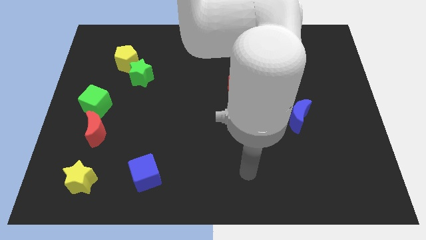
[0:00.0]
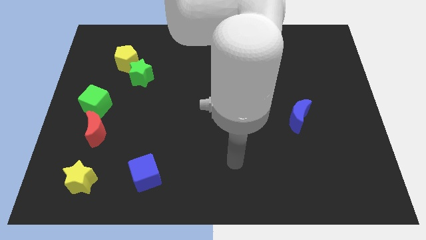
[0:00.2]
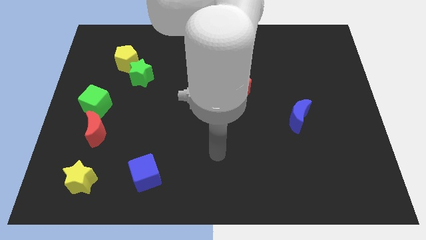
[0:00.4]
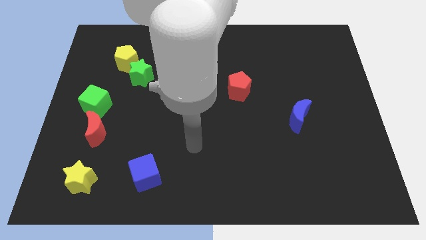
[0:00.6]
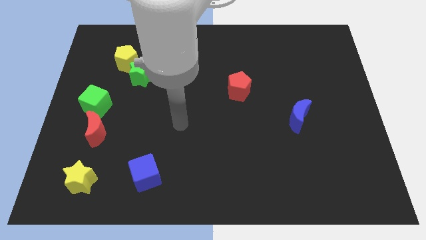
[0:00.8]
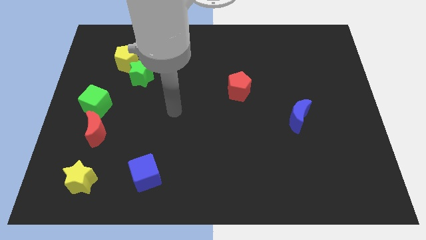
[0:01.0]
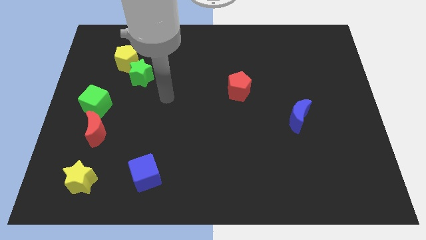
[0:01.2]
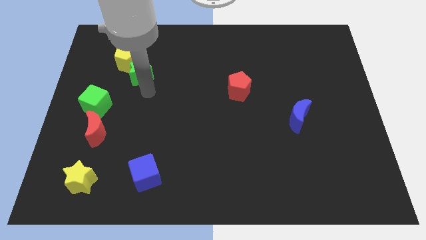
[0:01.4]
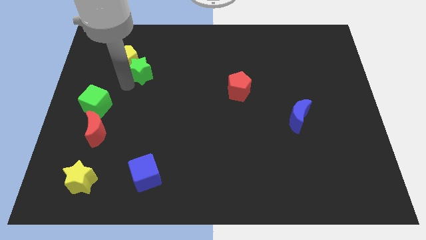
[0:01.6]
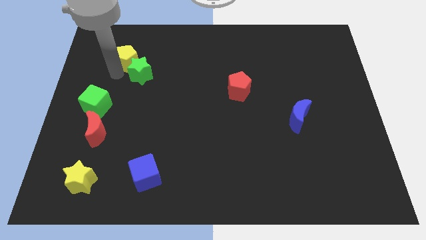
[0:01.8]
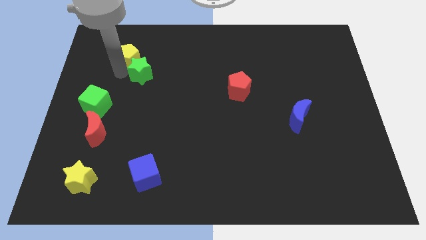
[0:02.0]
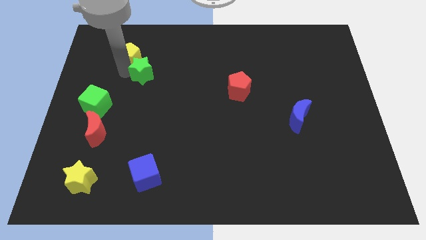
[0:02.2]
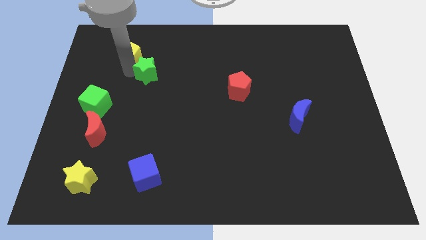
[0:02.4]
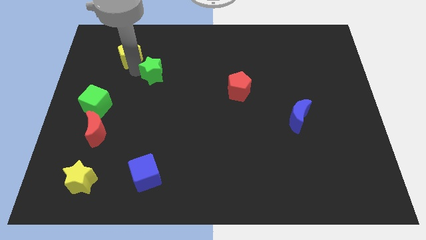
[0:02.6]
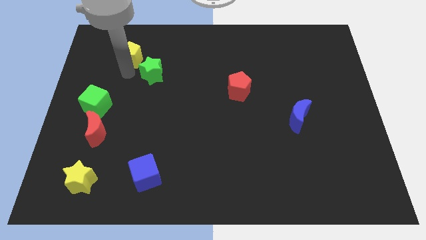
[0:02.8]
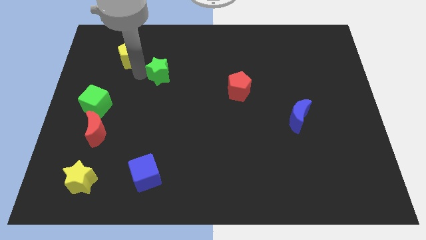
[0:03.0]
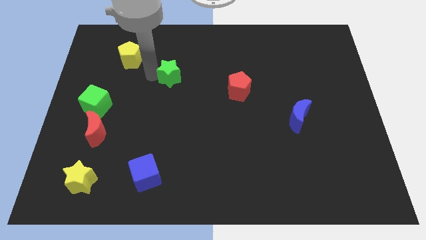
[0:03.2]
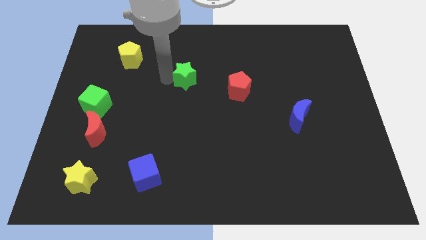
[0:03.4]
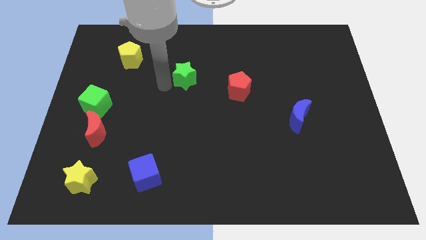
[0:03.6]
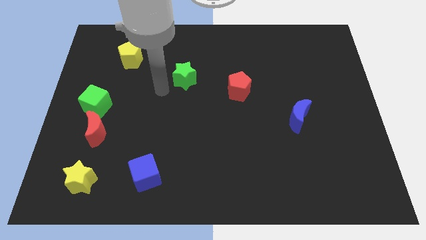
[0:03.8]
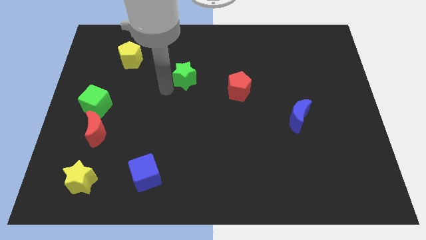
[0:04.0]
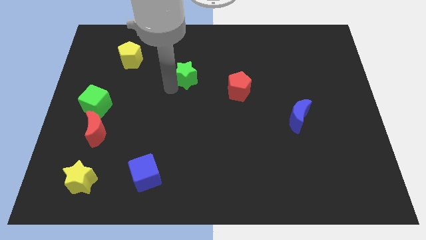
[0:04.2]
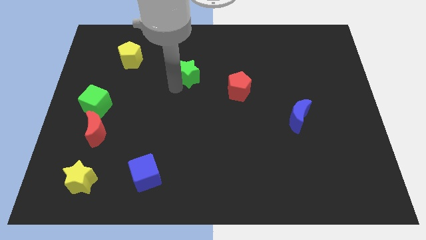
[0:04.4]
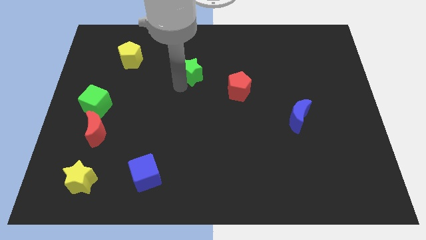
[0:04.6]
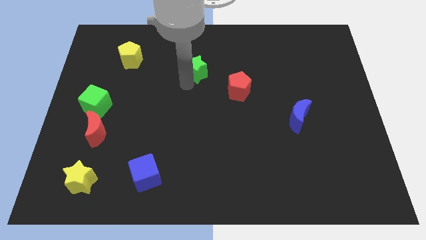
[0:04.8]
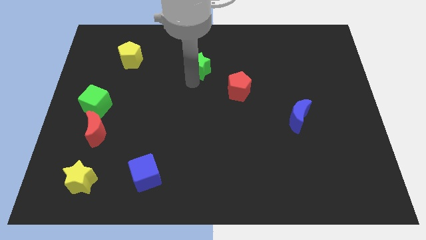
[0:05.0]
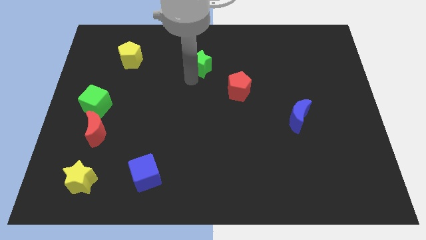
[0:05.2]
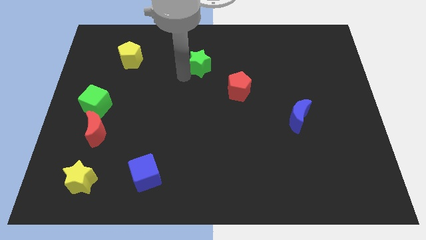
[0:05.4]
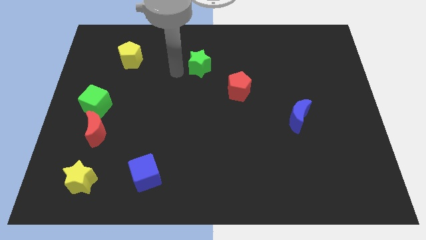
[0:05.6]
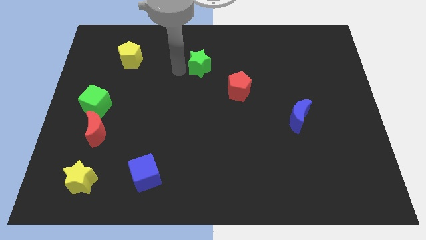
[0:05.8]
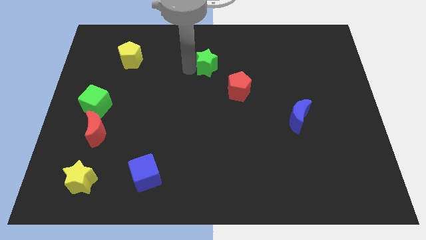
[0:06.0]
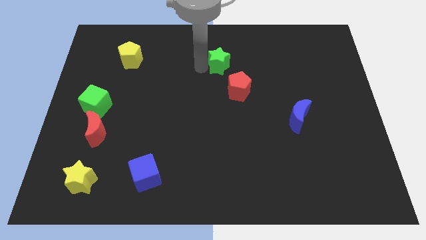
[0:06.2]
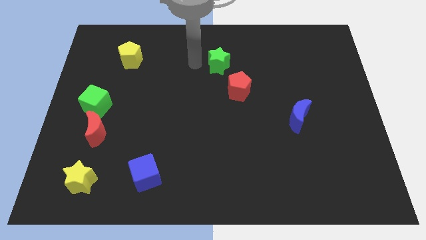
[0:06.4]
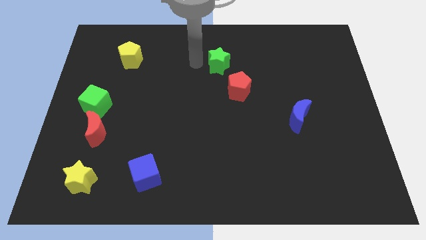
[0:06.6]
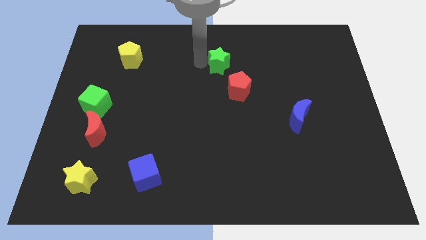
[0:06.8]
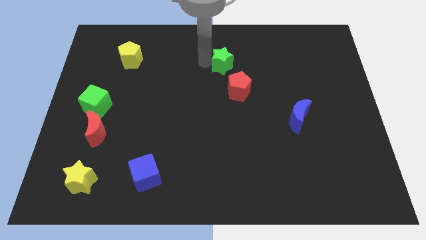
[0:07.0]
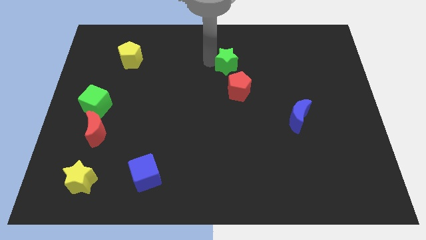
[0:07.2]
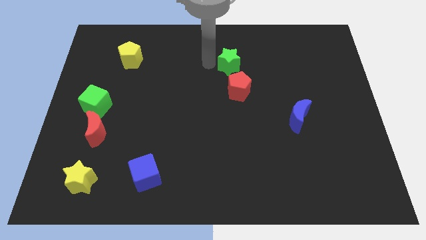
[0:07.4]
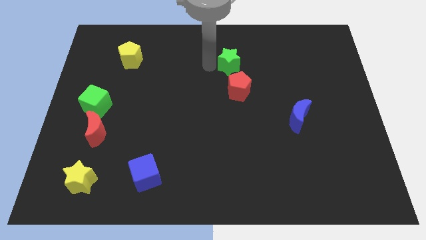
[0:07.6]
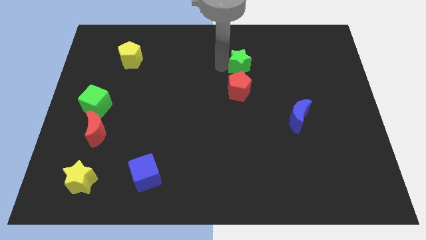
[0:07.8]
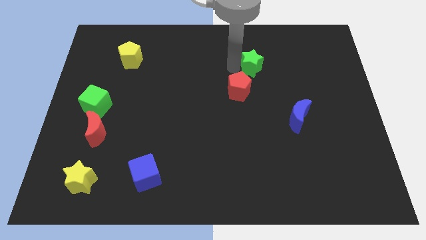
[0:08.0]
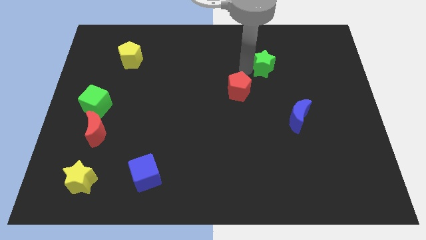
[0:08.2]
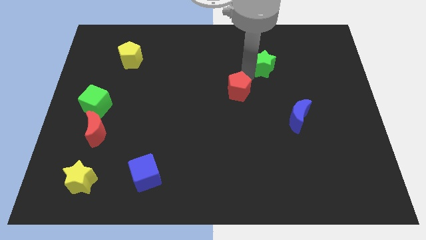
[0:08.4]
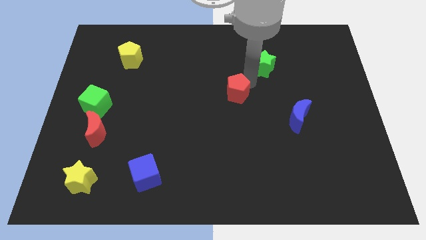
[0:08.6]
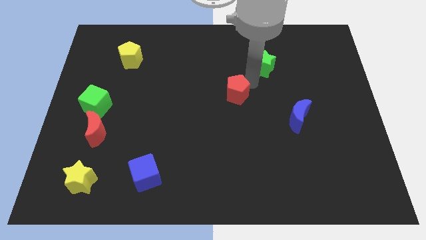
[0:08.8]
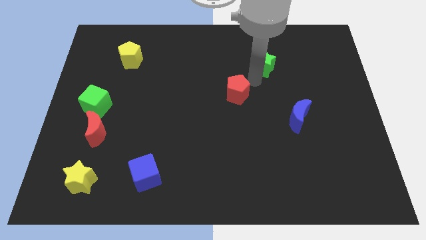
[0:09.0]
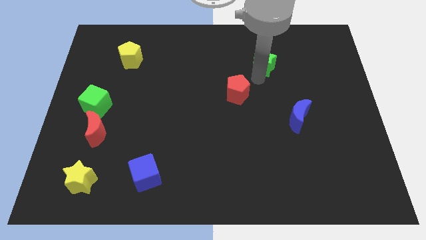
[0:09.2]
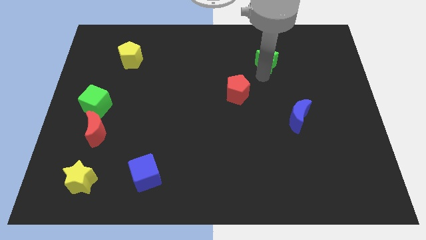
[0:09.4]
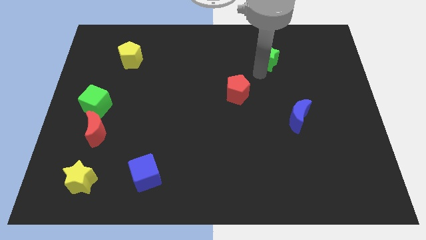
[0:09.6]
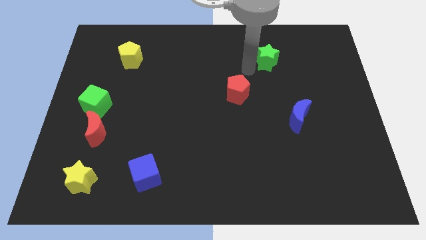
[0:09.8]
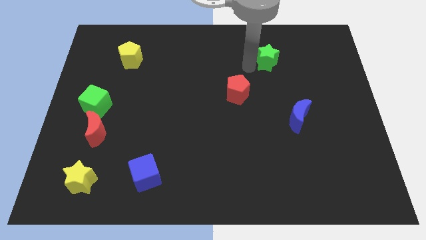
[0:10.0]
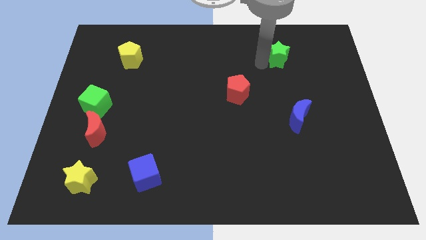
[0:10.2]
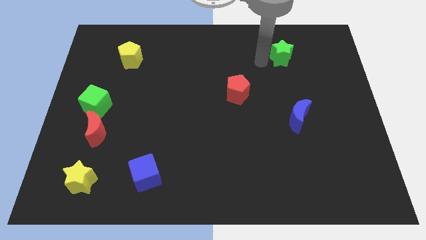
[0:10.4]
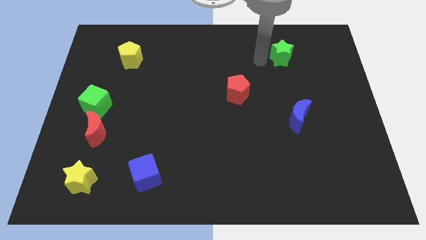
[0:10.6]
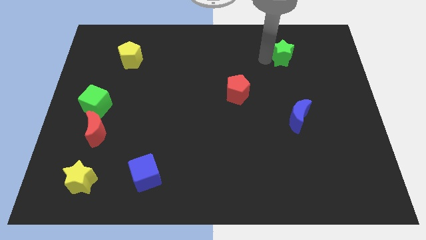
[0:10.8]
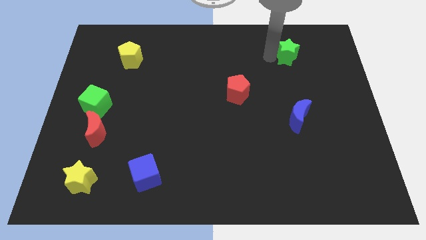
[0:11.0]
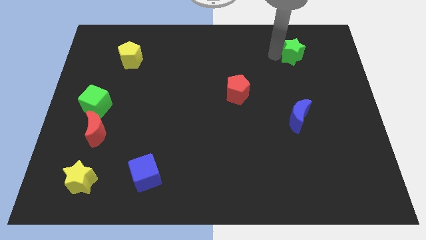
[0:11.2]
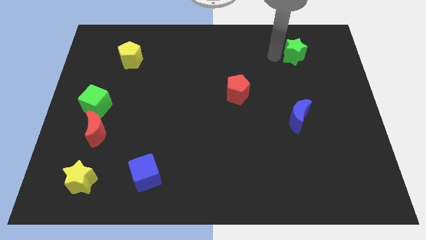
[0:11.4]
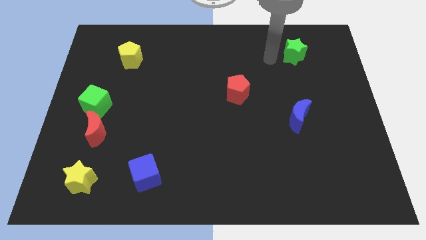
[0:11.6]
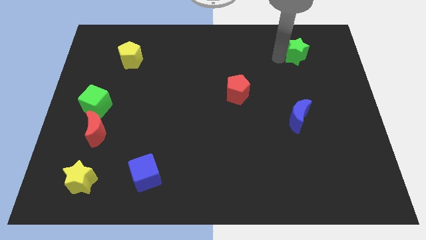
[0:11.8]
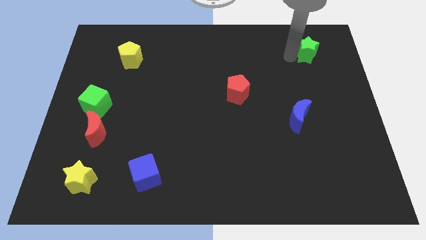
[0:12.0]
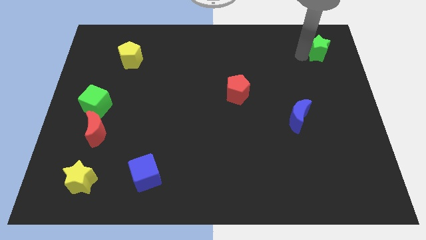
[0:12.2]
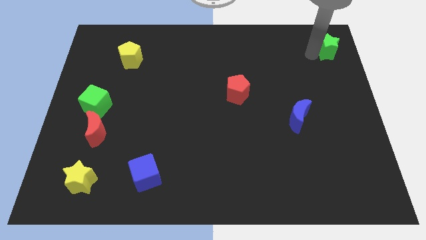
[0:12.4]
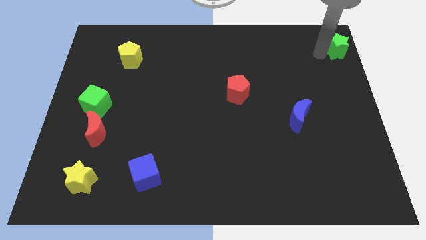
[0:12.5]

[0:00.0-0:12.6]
slide the green star to the top right of the board
